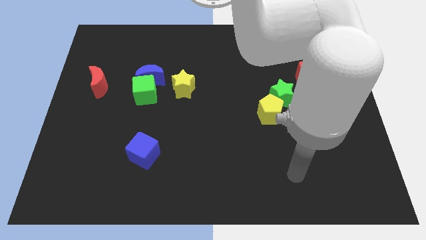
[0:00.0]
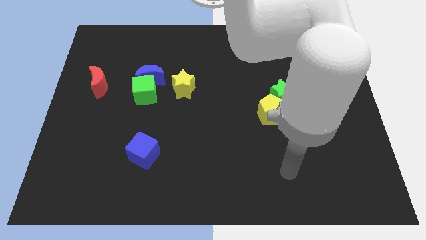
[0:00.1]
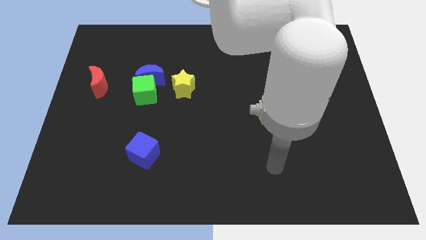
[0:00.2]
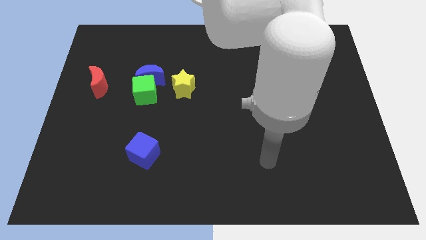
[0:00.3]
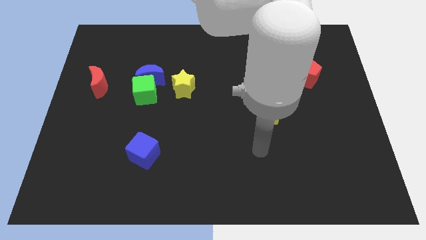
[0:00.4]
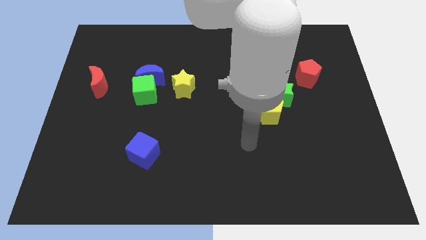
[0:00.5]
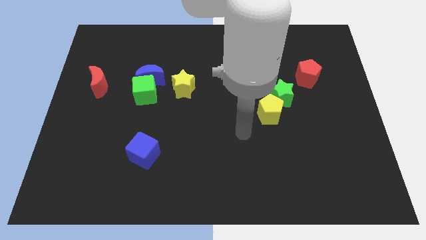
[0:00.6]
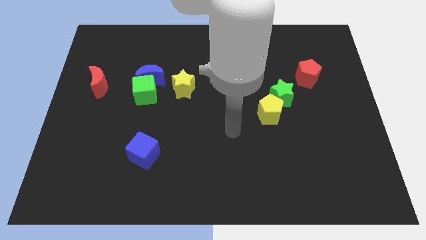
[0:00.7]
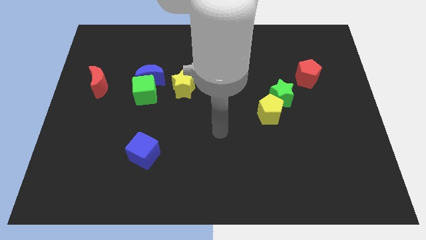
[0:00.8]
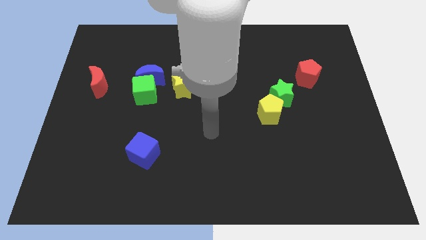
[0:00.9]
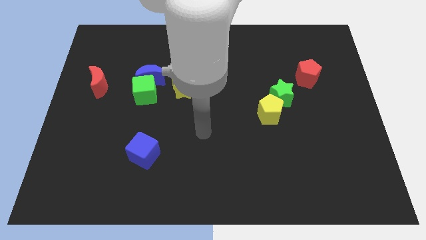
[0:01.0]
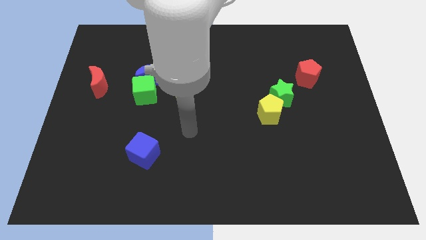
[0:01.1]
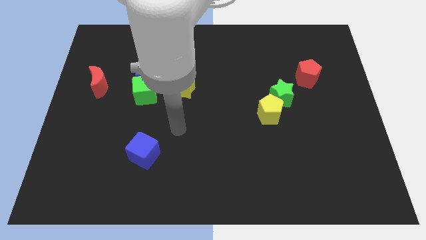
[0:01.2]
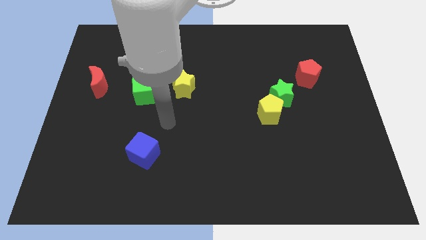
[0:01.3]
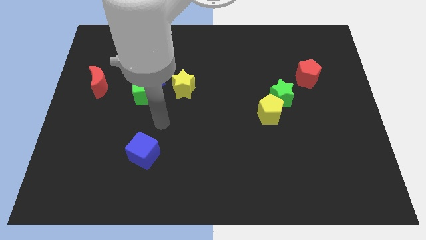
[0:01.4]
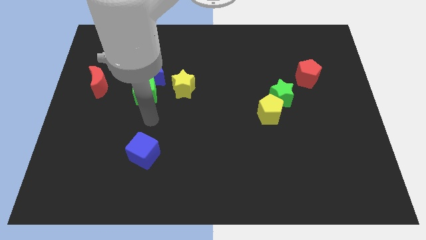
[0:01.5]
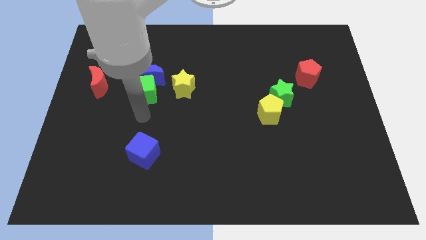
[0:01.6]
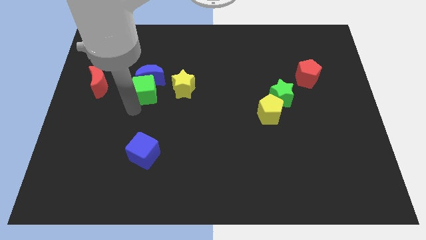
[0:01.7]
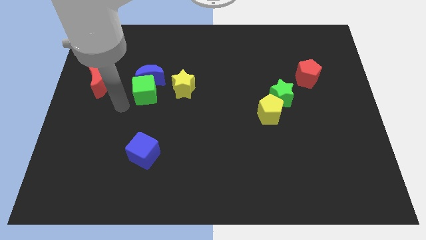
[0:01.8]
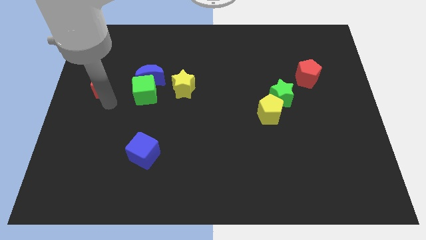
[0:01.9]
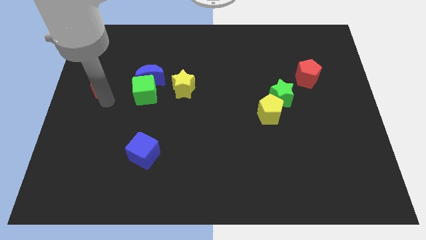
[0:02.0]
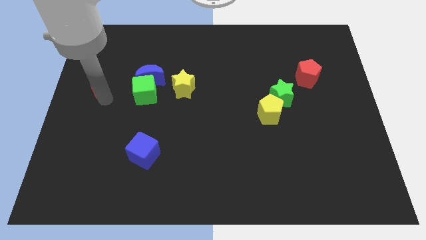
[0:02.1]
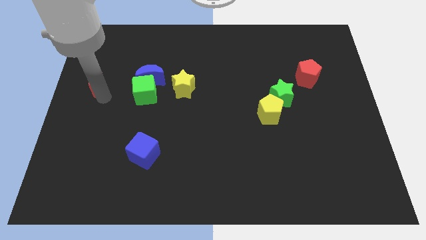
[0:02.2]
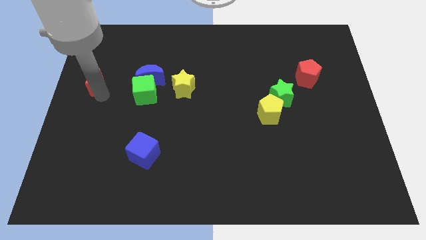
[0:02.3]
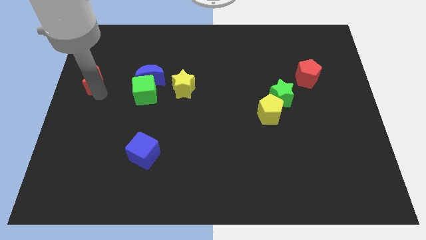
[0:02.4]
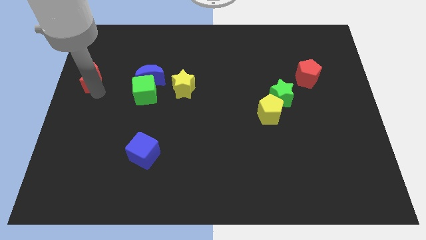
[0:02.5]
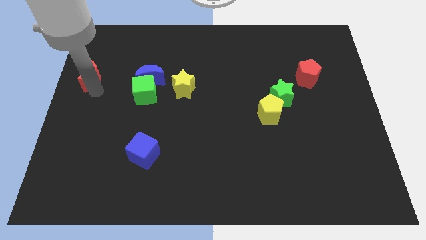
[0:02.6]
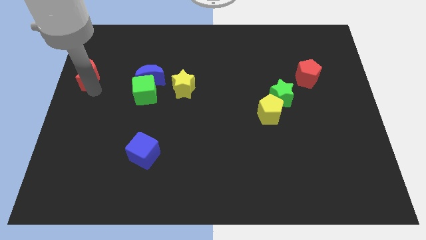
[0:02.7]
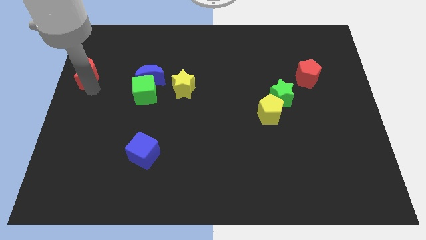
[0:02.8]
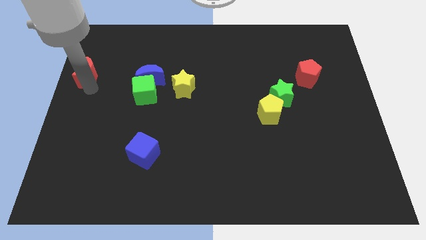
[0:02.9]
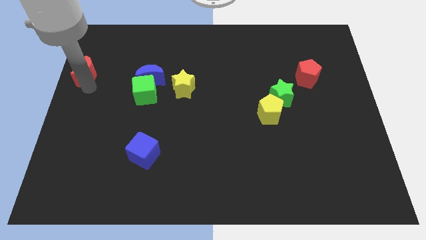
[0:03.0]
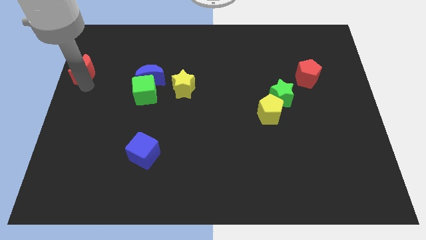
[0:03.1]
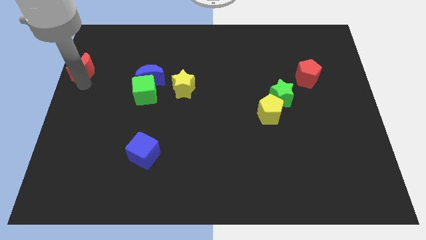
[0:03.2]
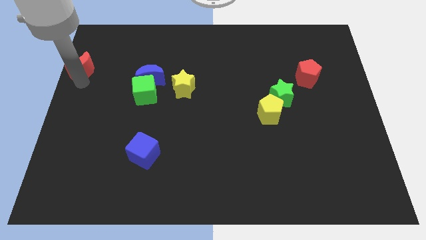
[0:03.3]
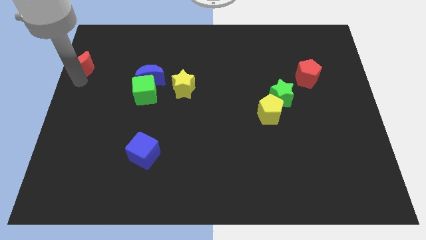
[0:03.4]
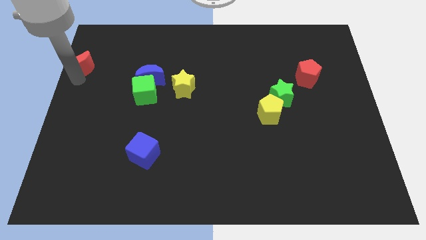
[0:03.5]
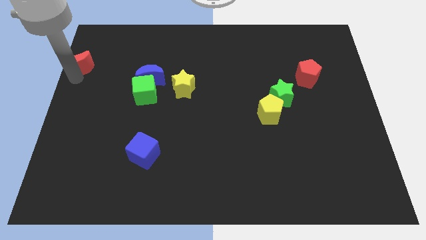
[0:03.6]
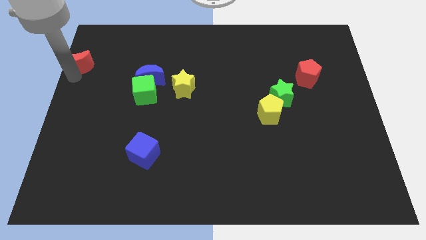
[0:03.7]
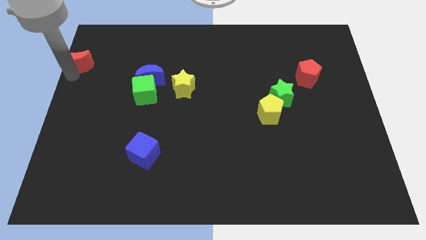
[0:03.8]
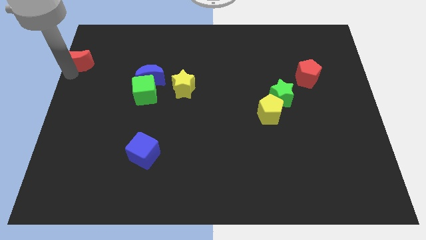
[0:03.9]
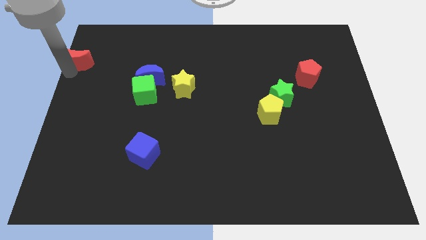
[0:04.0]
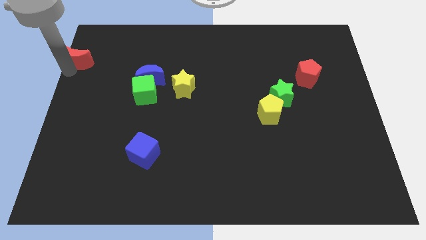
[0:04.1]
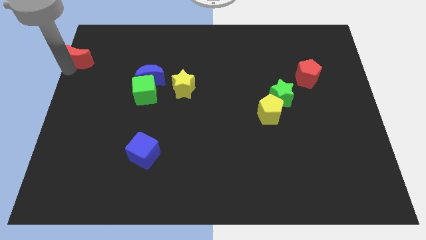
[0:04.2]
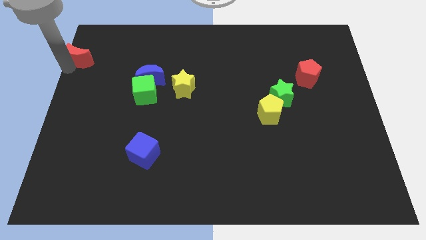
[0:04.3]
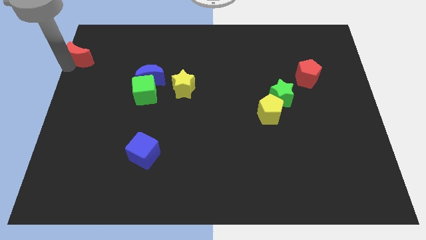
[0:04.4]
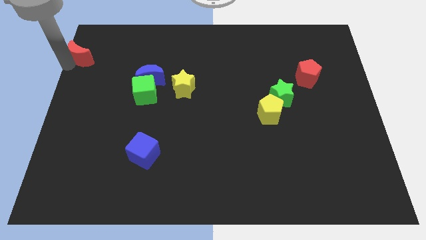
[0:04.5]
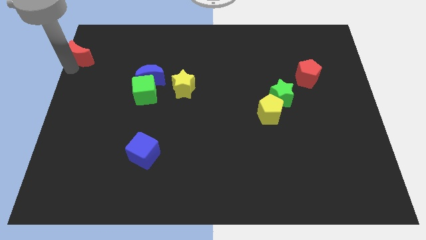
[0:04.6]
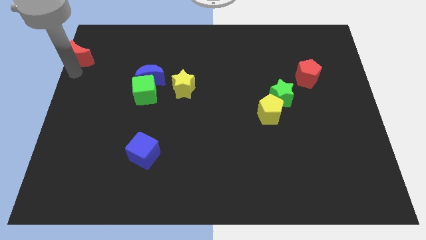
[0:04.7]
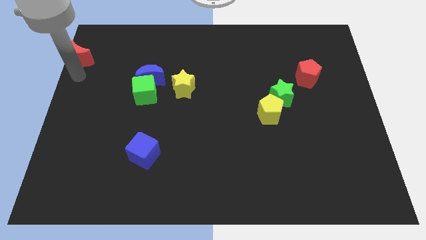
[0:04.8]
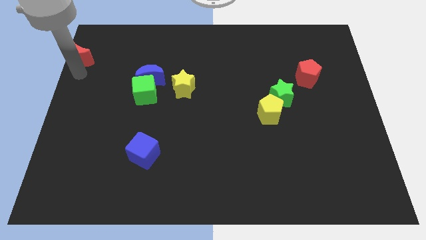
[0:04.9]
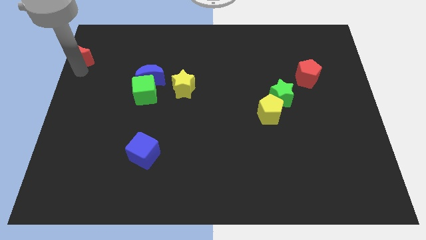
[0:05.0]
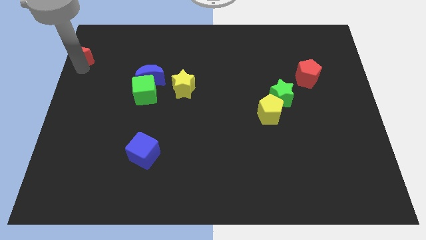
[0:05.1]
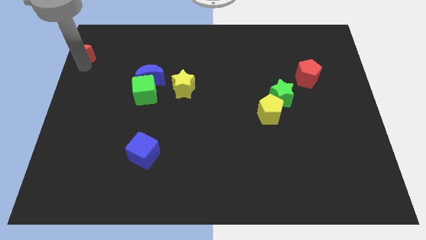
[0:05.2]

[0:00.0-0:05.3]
push the red moon to the top left of the board

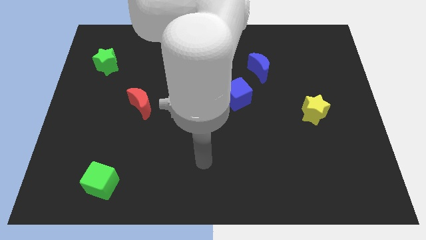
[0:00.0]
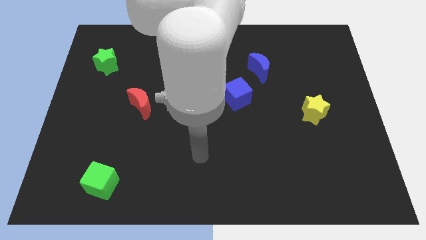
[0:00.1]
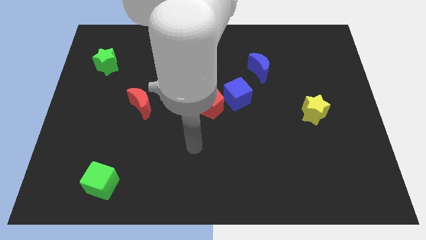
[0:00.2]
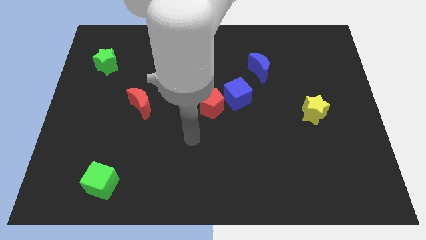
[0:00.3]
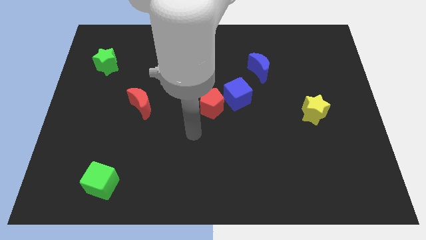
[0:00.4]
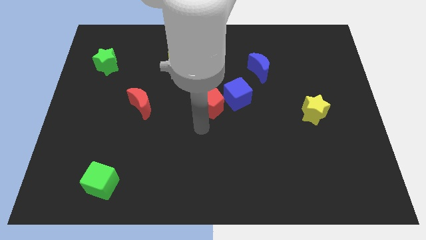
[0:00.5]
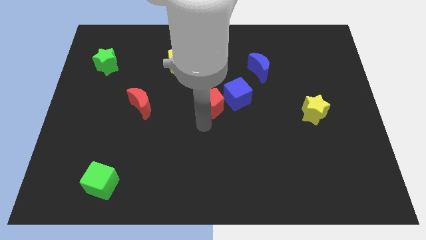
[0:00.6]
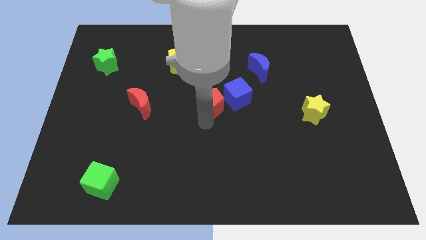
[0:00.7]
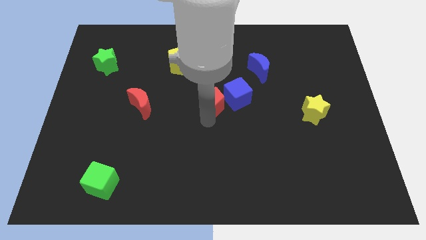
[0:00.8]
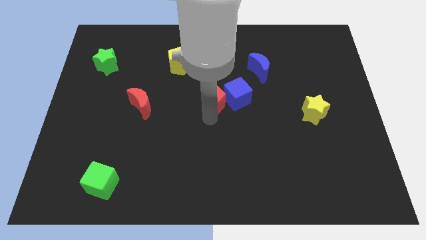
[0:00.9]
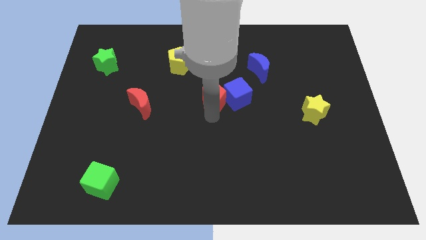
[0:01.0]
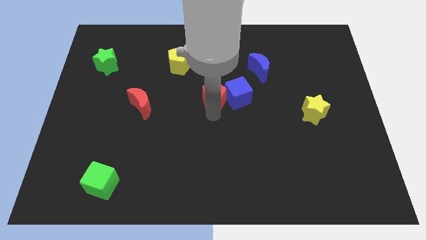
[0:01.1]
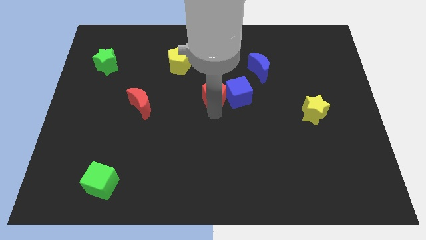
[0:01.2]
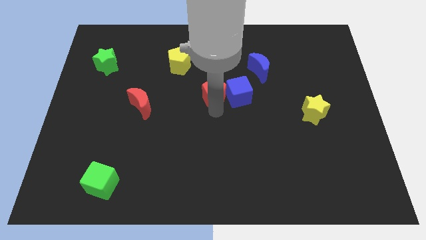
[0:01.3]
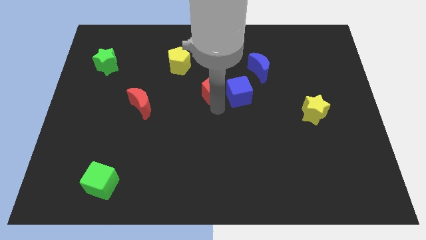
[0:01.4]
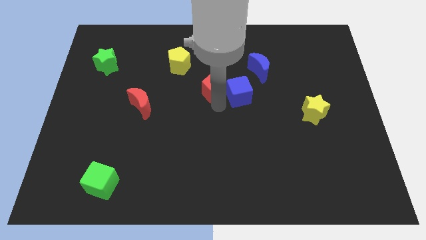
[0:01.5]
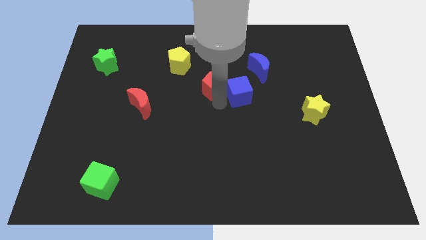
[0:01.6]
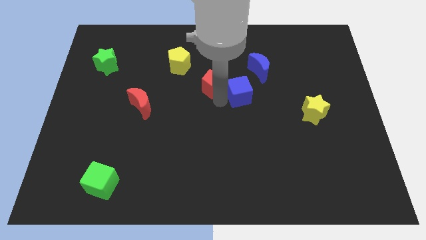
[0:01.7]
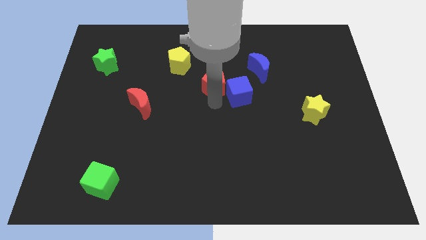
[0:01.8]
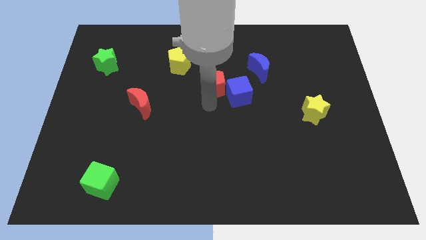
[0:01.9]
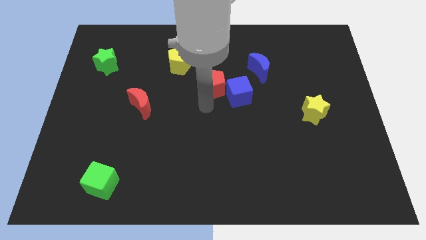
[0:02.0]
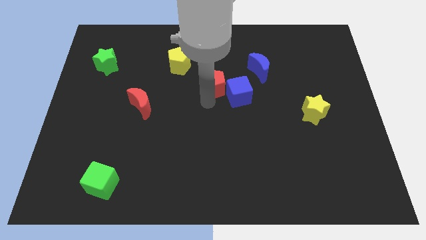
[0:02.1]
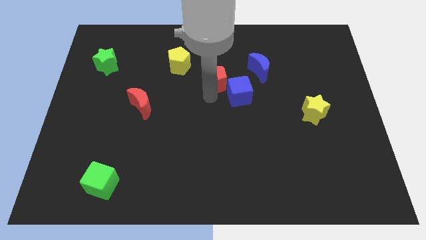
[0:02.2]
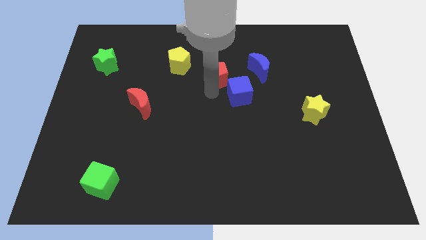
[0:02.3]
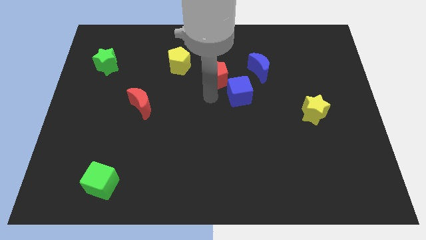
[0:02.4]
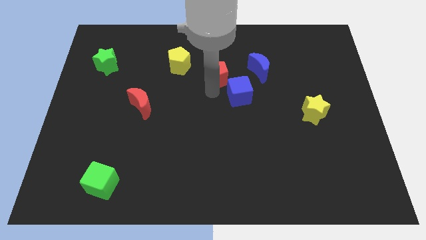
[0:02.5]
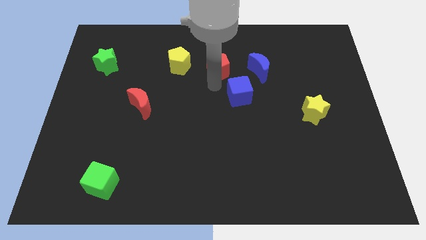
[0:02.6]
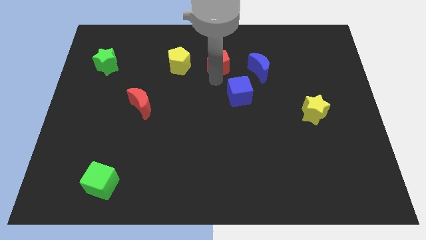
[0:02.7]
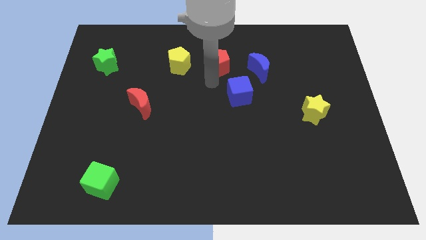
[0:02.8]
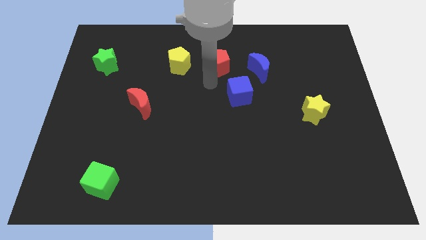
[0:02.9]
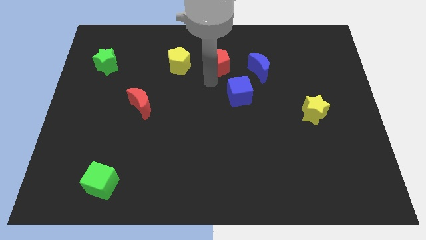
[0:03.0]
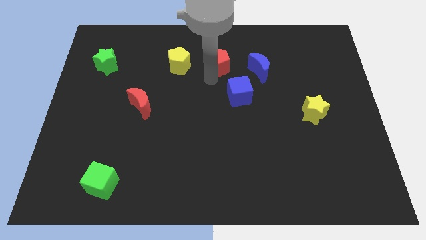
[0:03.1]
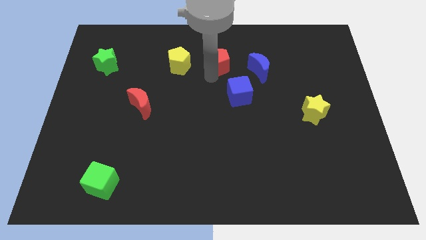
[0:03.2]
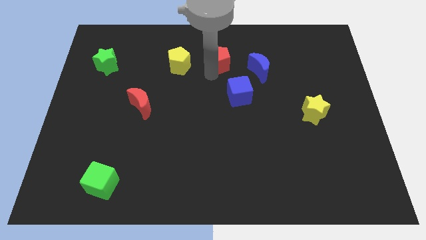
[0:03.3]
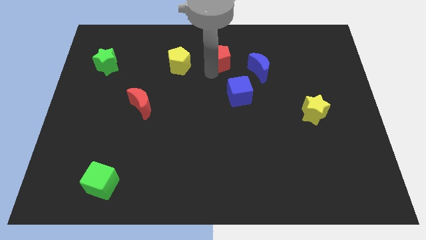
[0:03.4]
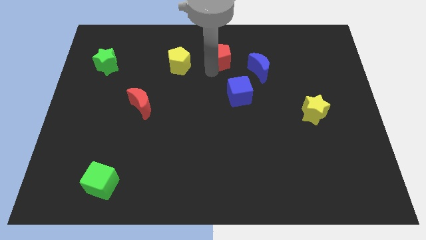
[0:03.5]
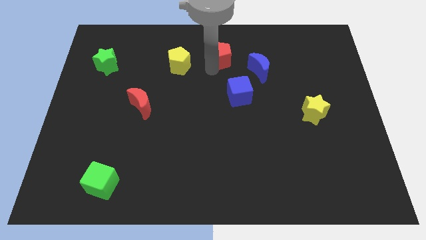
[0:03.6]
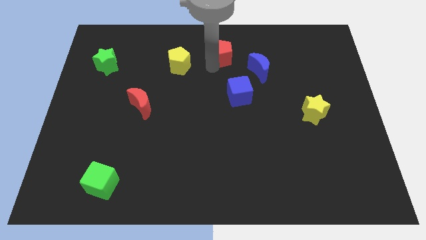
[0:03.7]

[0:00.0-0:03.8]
put the red pentagon to the top side
